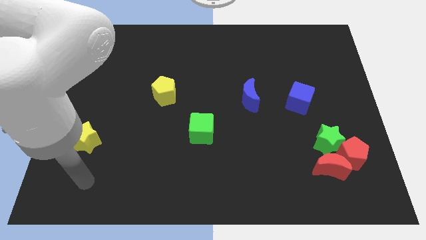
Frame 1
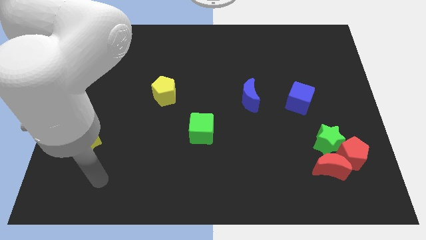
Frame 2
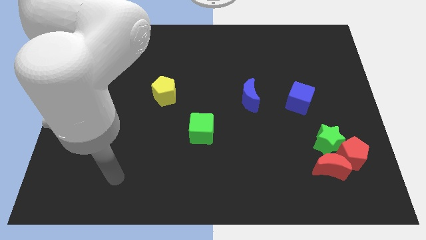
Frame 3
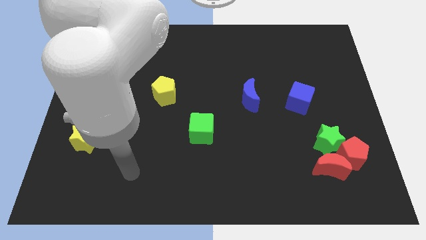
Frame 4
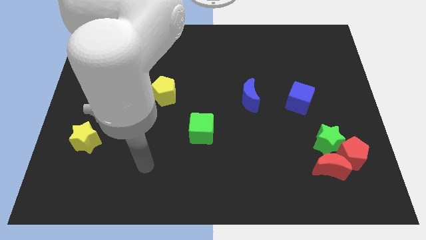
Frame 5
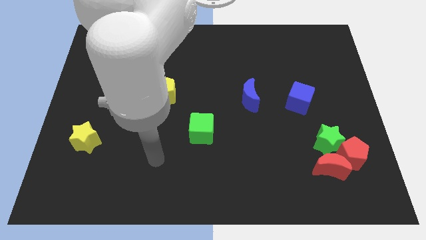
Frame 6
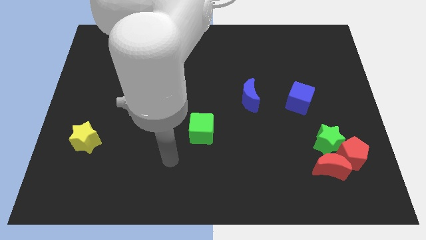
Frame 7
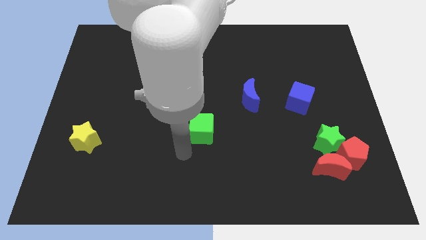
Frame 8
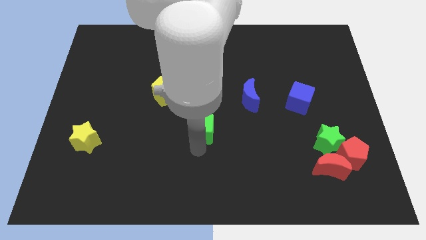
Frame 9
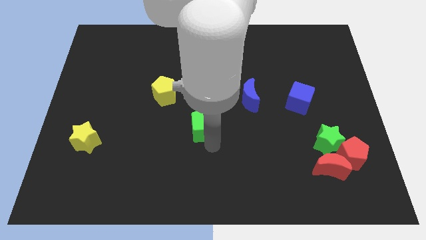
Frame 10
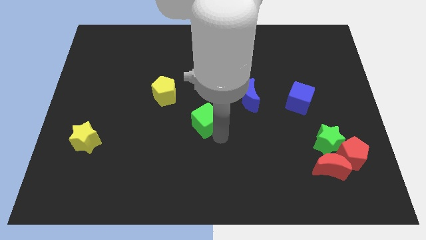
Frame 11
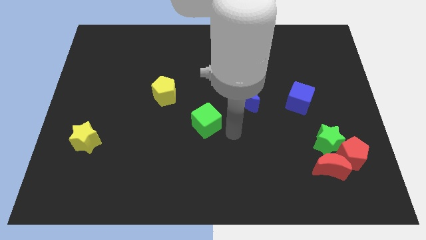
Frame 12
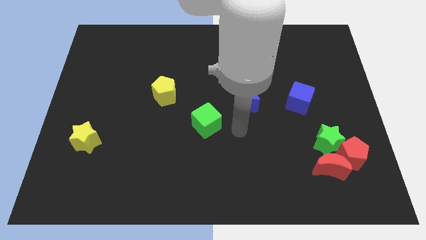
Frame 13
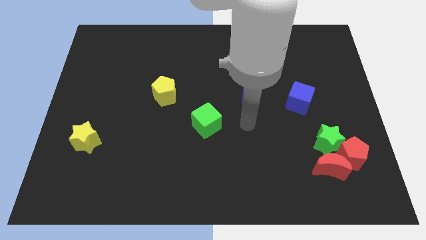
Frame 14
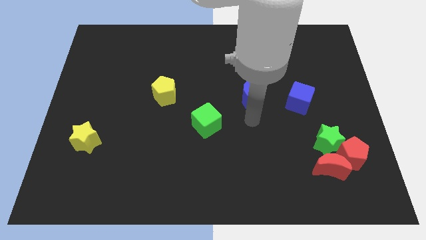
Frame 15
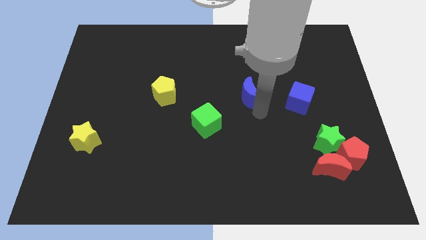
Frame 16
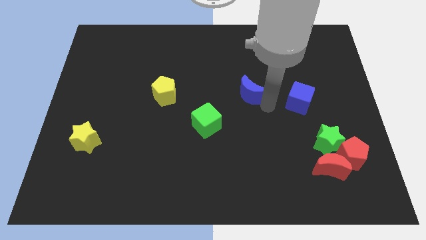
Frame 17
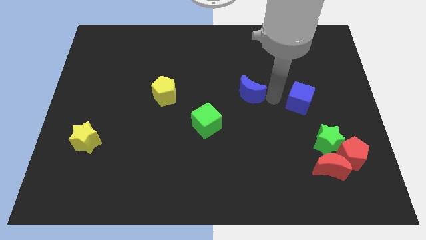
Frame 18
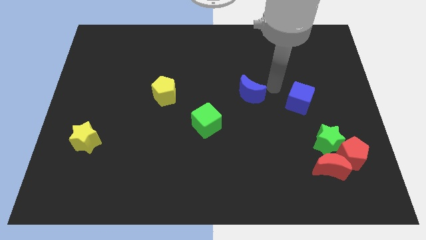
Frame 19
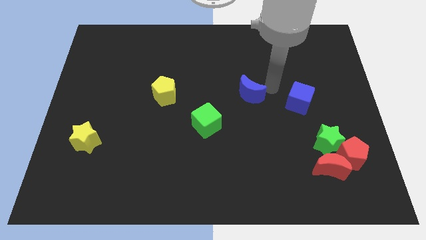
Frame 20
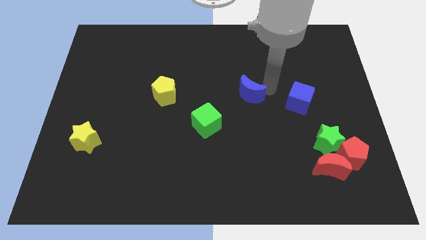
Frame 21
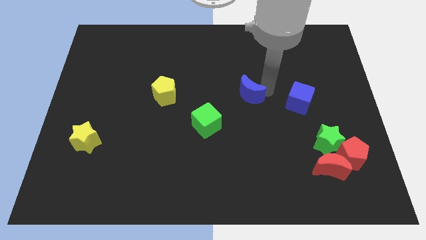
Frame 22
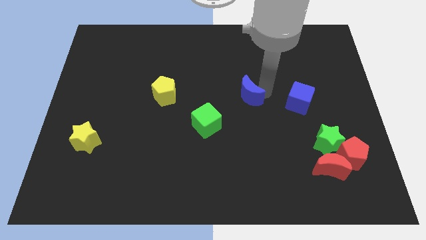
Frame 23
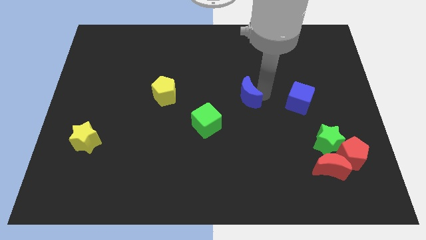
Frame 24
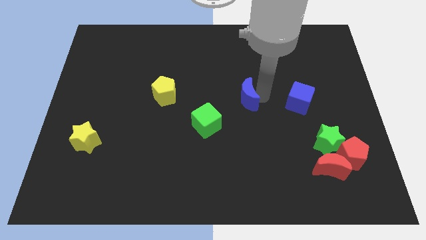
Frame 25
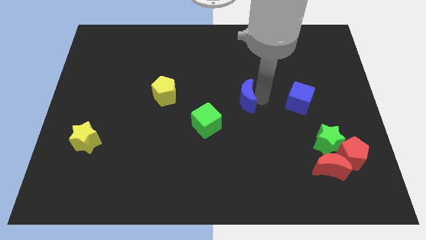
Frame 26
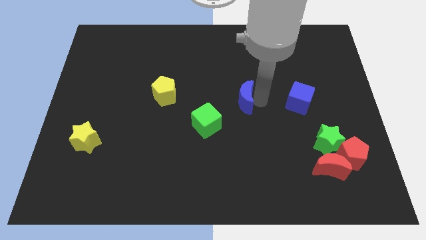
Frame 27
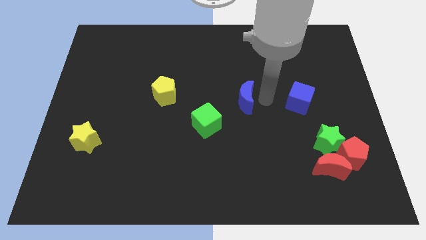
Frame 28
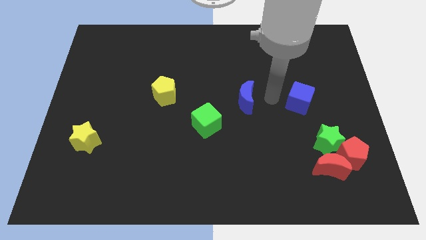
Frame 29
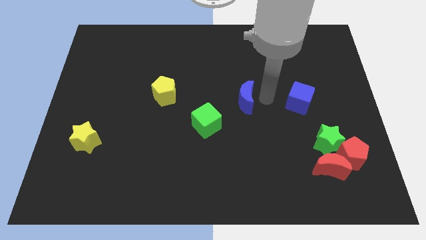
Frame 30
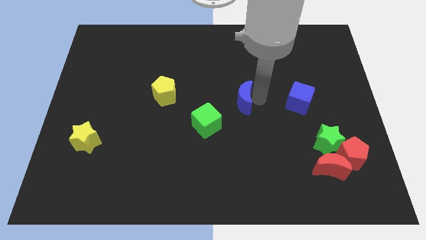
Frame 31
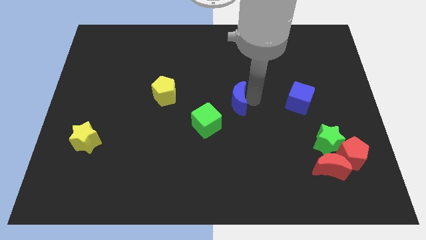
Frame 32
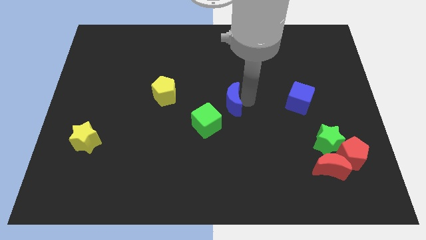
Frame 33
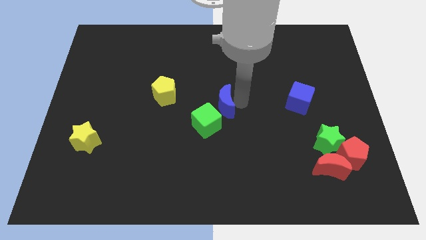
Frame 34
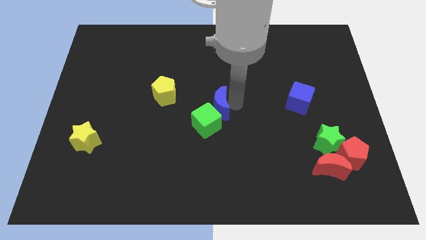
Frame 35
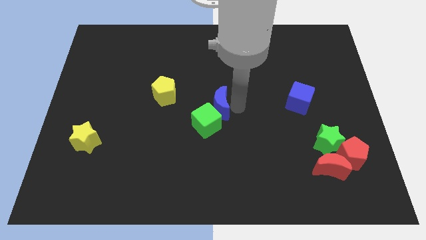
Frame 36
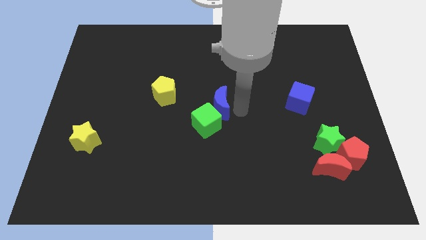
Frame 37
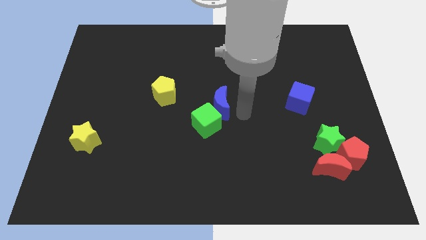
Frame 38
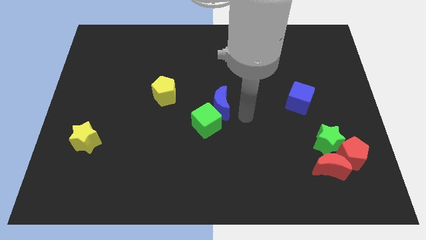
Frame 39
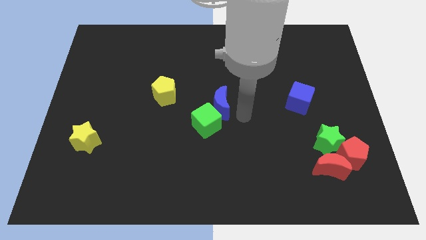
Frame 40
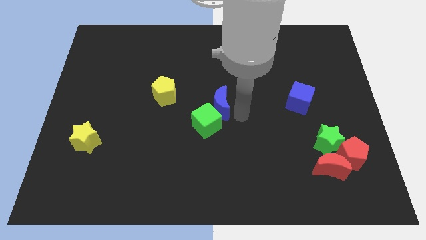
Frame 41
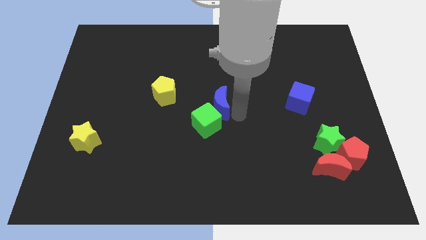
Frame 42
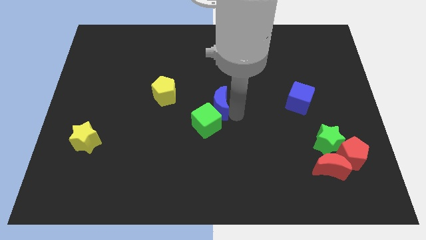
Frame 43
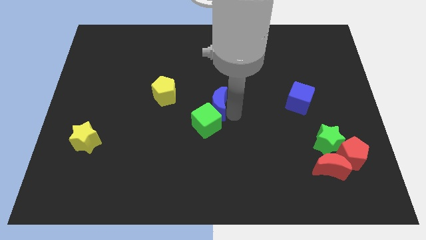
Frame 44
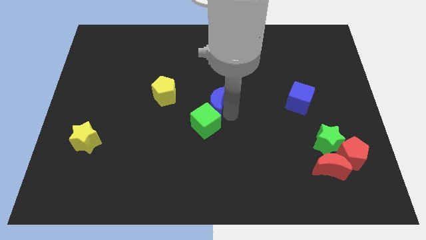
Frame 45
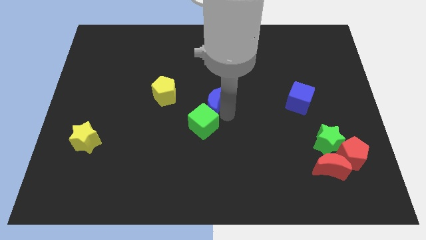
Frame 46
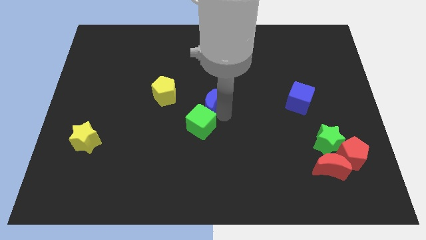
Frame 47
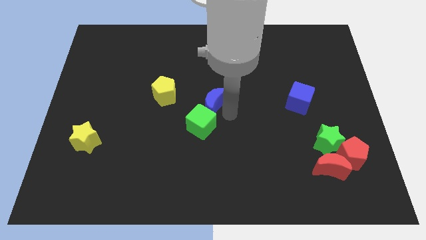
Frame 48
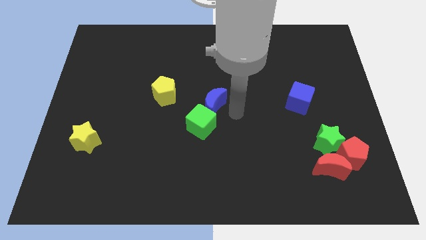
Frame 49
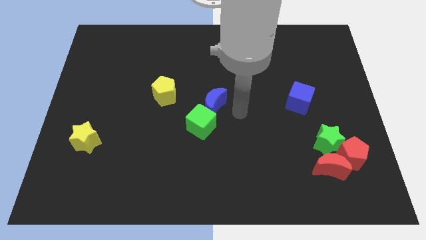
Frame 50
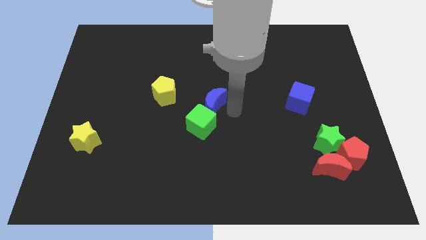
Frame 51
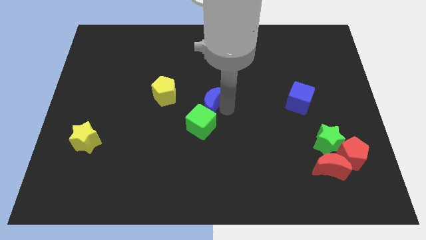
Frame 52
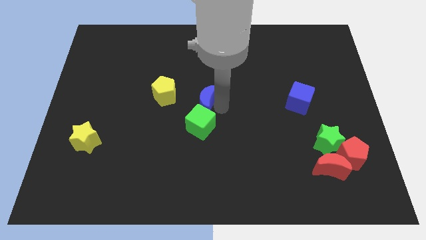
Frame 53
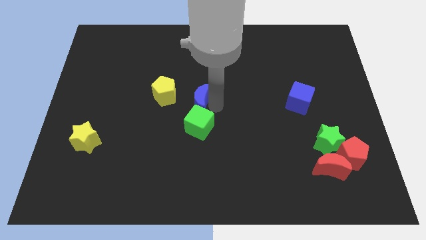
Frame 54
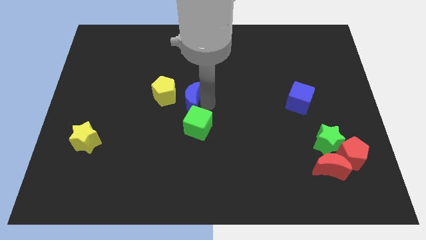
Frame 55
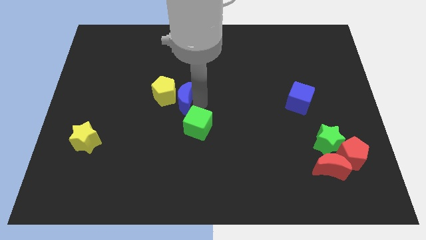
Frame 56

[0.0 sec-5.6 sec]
slide the blue moon towards the yellow pentagon

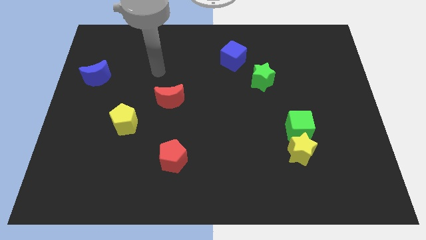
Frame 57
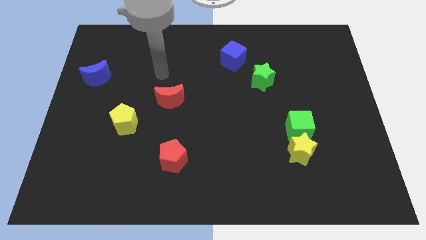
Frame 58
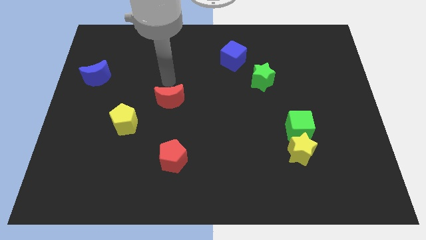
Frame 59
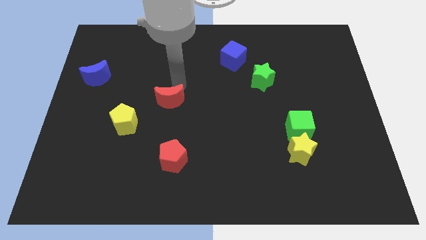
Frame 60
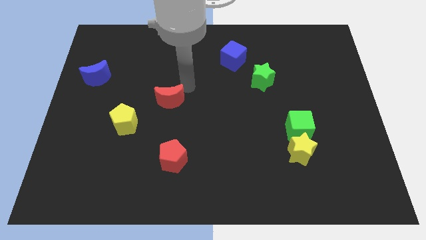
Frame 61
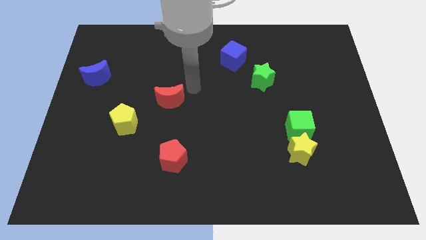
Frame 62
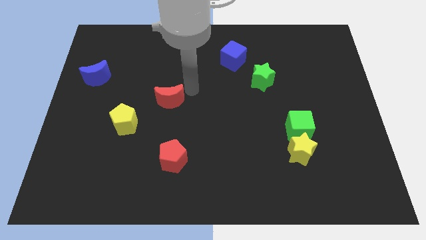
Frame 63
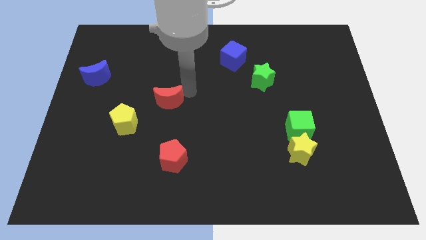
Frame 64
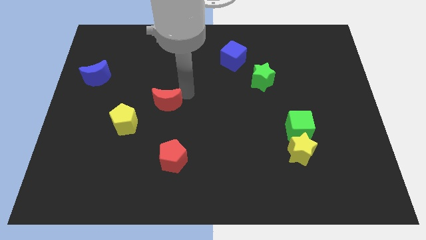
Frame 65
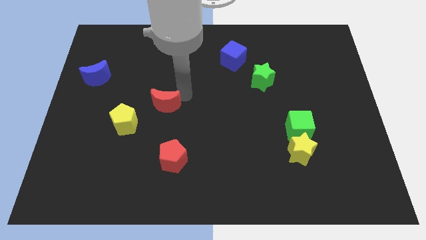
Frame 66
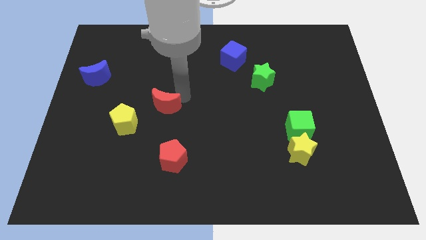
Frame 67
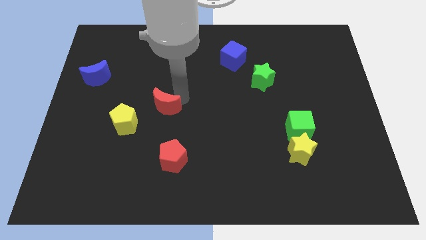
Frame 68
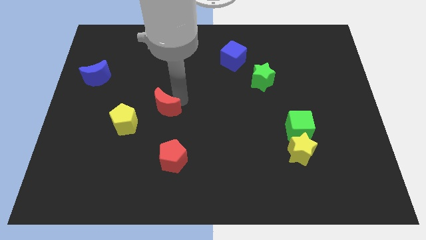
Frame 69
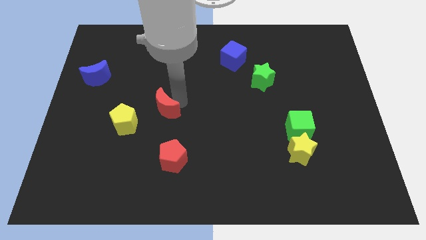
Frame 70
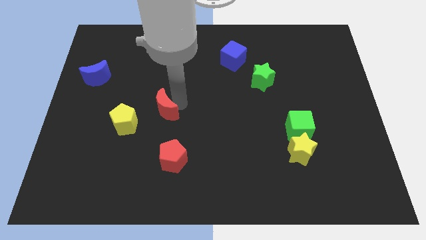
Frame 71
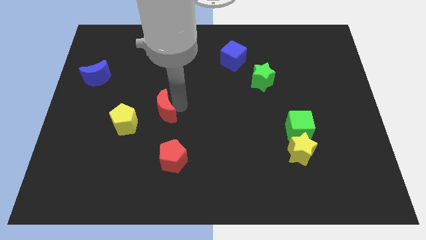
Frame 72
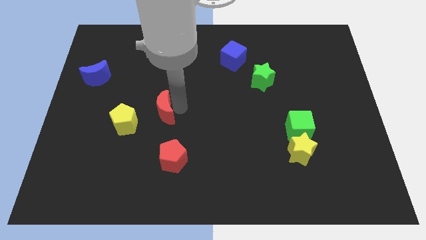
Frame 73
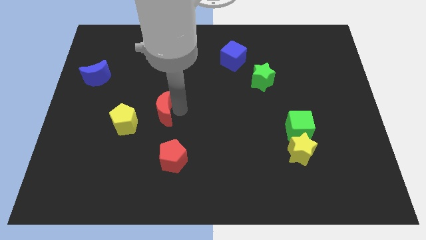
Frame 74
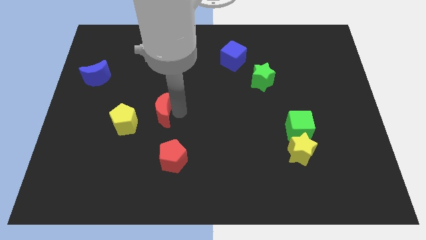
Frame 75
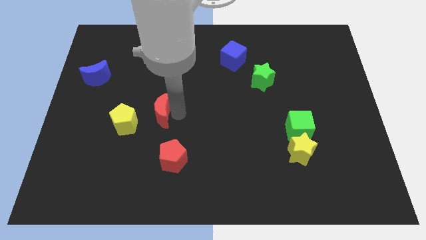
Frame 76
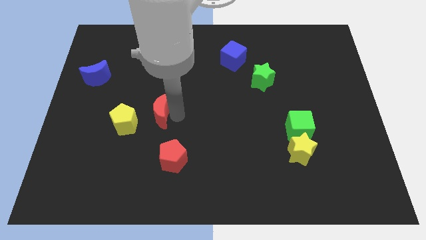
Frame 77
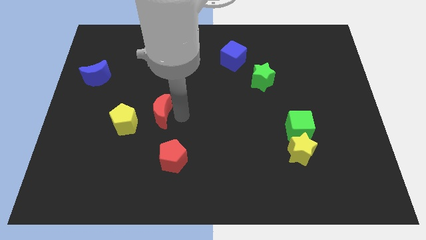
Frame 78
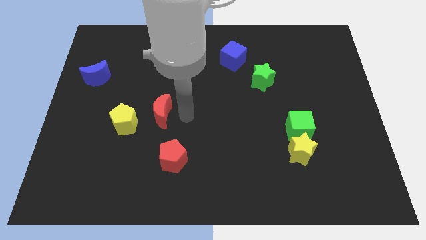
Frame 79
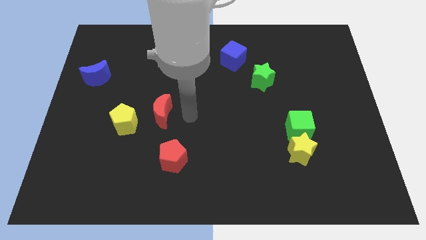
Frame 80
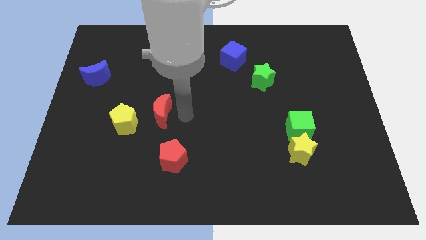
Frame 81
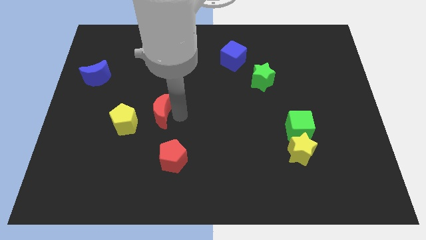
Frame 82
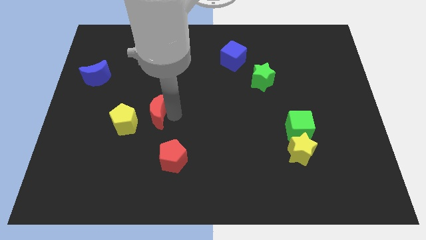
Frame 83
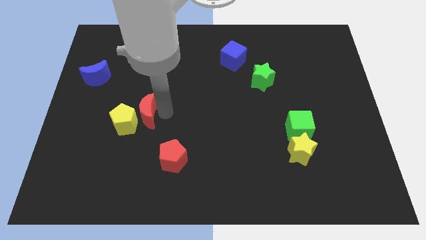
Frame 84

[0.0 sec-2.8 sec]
put the red moon towards the yellow pentagon
